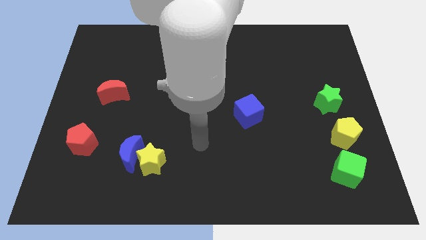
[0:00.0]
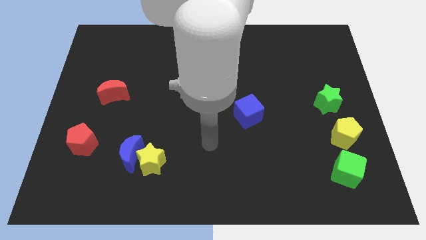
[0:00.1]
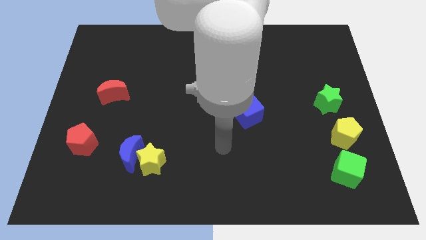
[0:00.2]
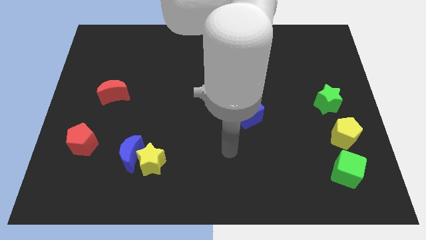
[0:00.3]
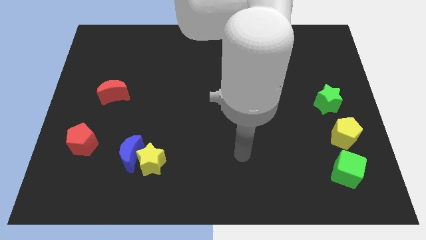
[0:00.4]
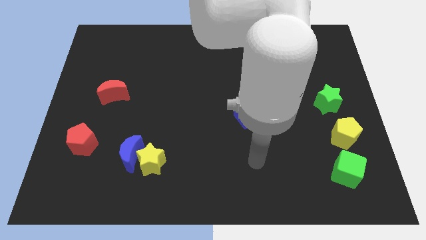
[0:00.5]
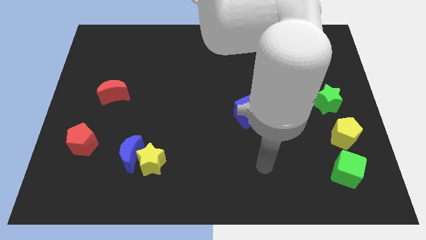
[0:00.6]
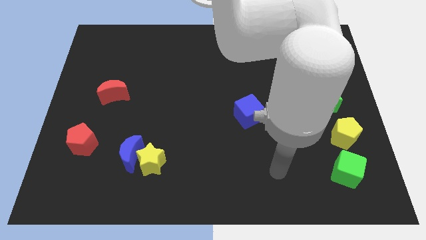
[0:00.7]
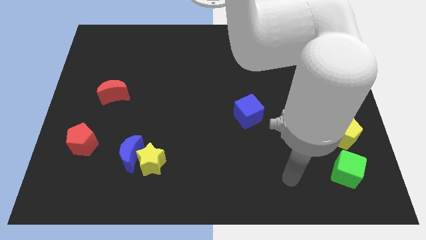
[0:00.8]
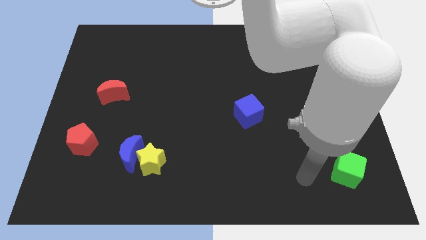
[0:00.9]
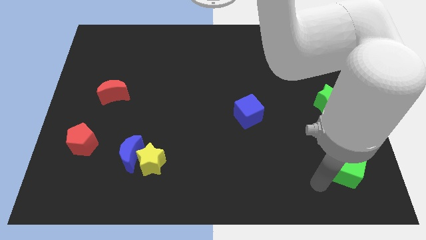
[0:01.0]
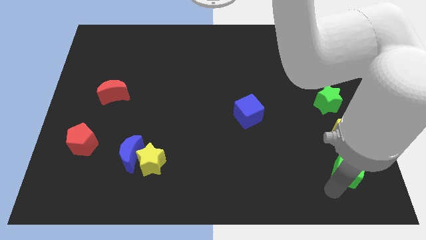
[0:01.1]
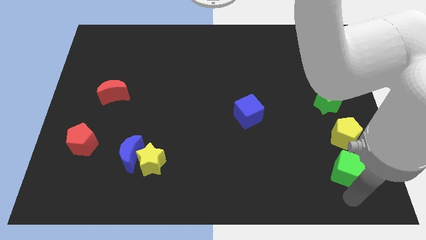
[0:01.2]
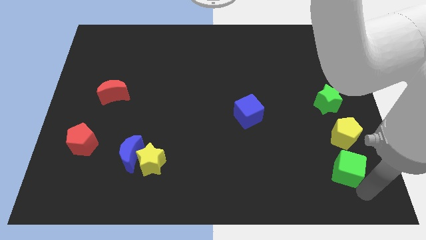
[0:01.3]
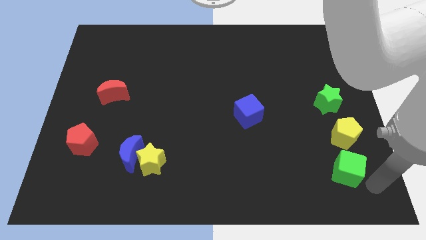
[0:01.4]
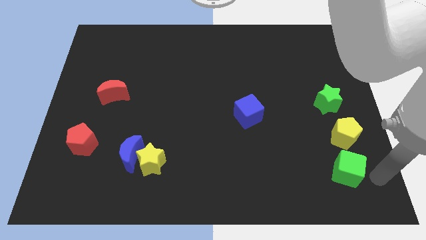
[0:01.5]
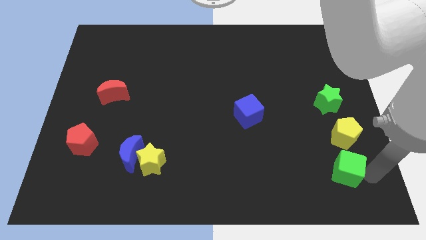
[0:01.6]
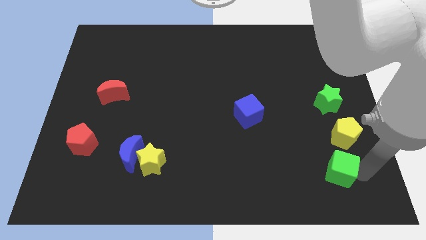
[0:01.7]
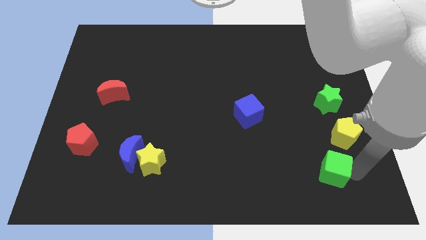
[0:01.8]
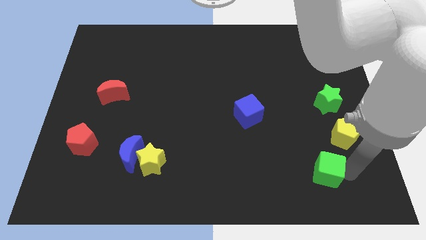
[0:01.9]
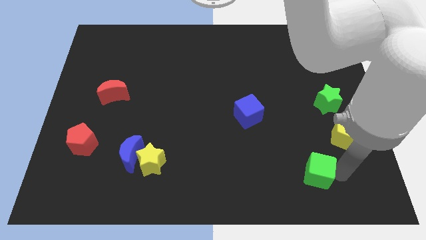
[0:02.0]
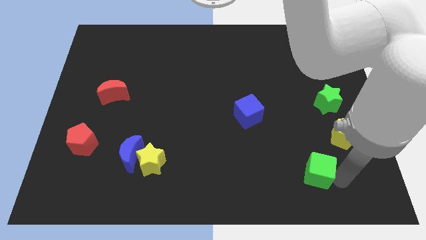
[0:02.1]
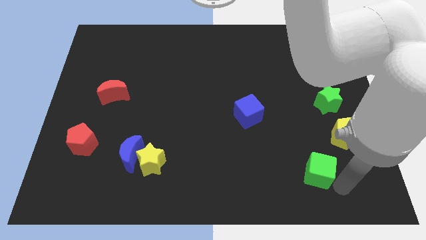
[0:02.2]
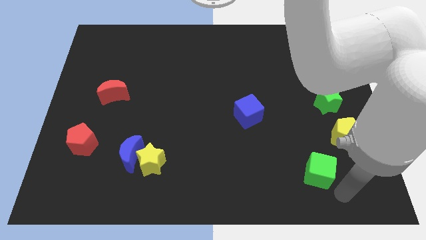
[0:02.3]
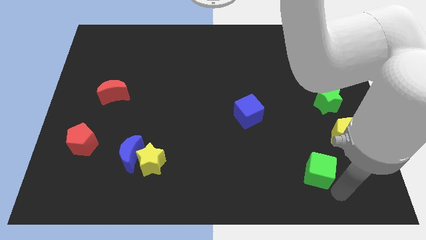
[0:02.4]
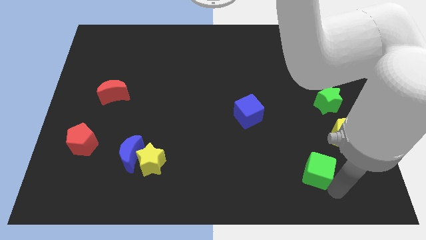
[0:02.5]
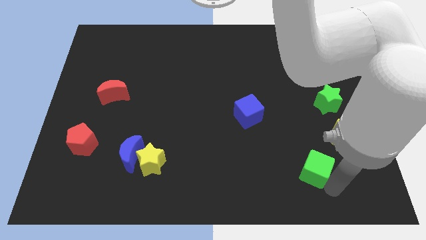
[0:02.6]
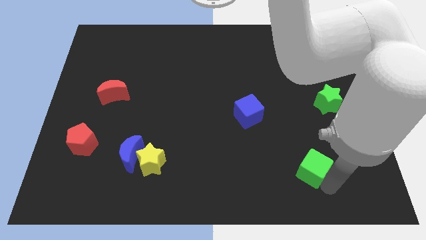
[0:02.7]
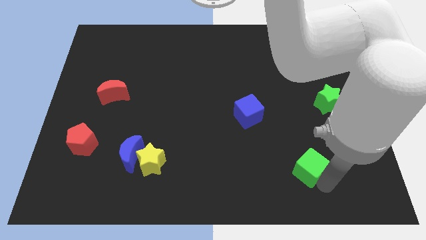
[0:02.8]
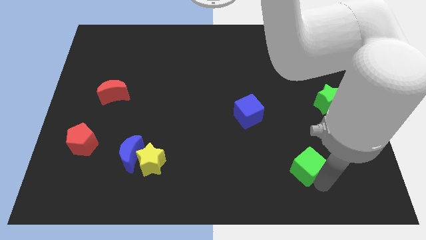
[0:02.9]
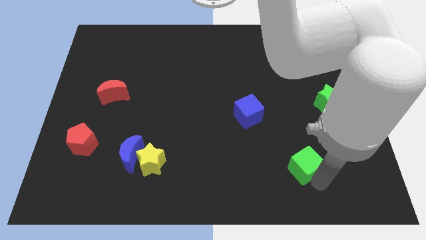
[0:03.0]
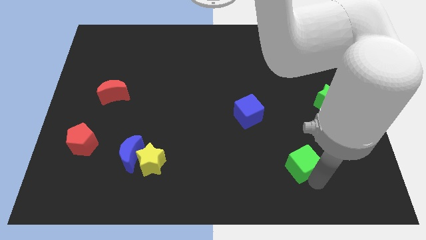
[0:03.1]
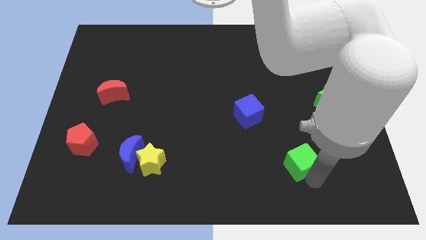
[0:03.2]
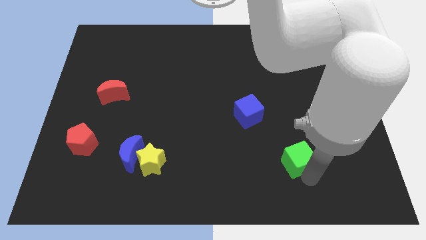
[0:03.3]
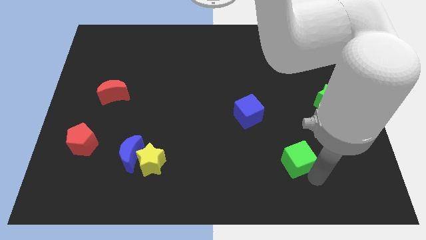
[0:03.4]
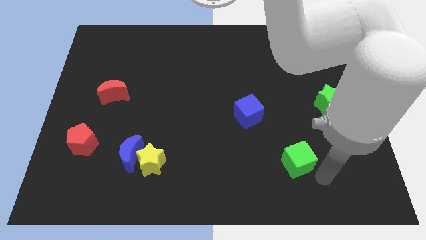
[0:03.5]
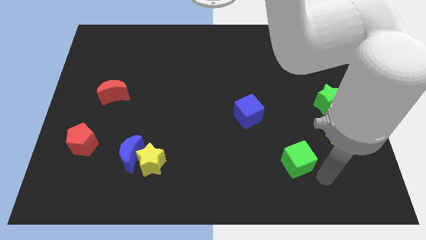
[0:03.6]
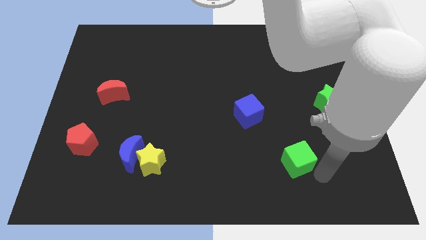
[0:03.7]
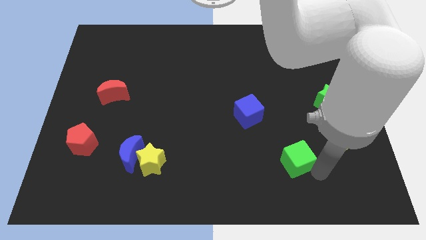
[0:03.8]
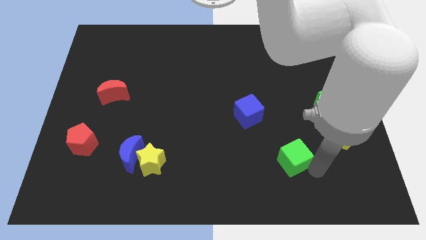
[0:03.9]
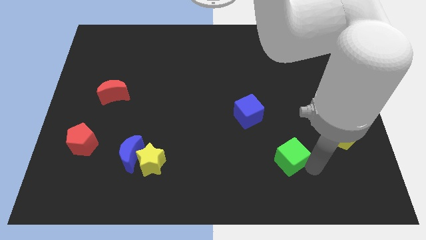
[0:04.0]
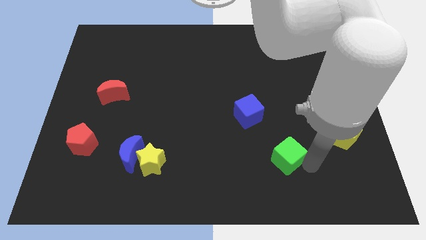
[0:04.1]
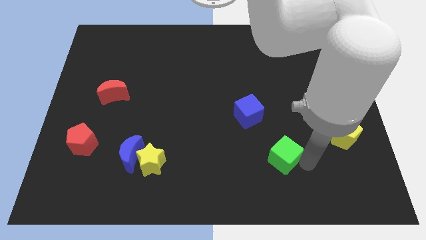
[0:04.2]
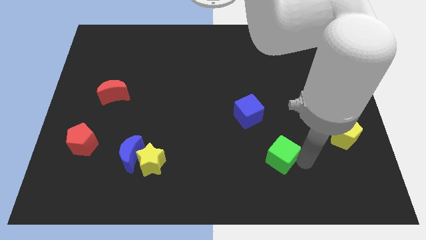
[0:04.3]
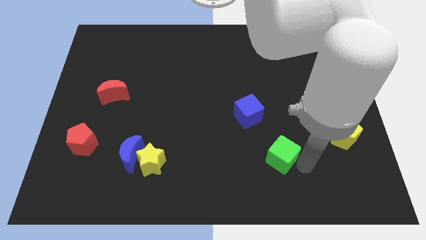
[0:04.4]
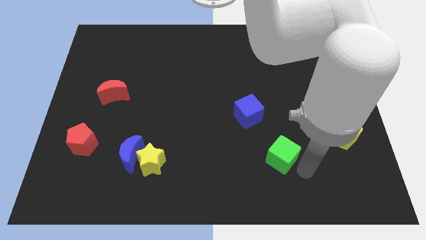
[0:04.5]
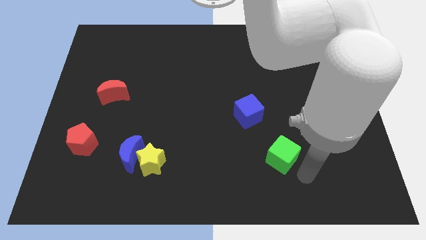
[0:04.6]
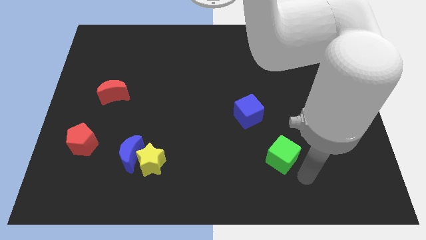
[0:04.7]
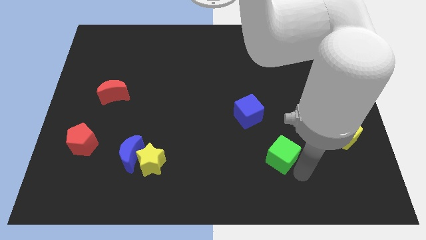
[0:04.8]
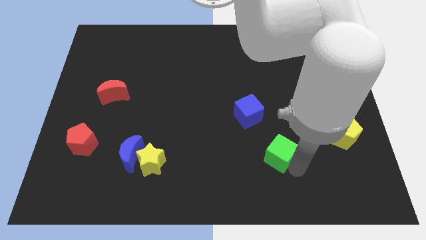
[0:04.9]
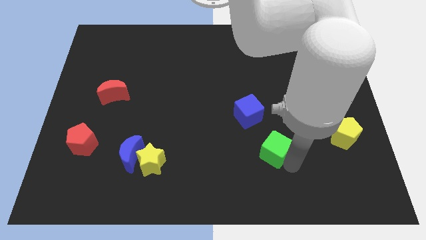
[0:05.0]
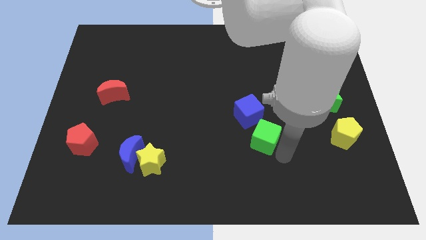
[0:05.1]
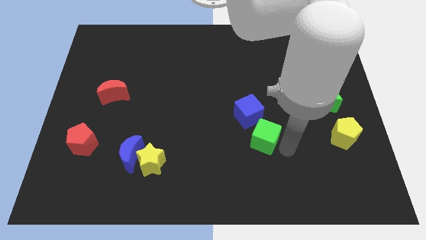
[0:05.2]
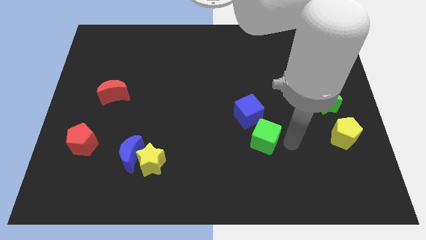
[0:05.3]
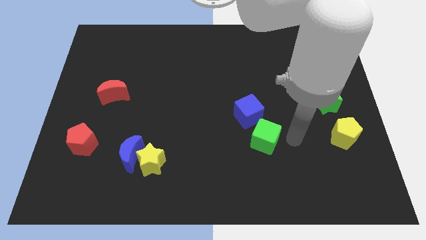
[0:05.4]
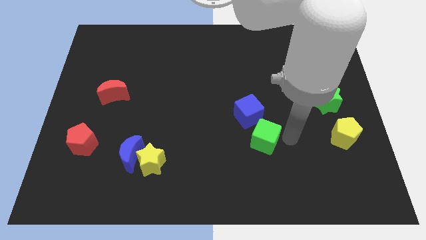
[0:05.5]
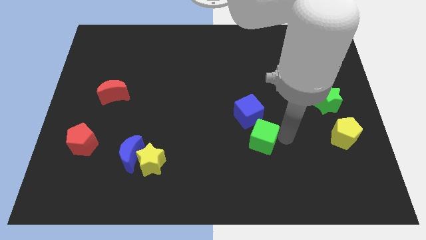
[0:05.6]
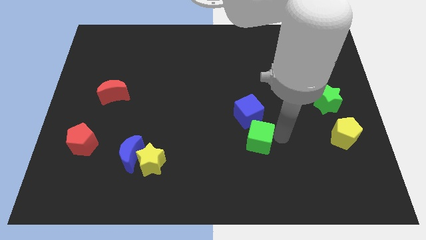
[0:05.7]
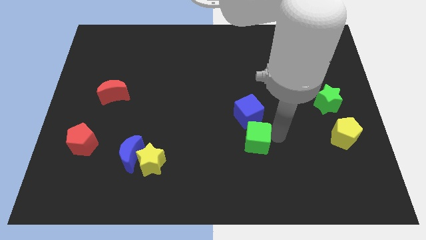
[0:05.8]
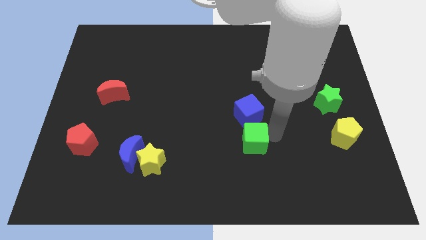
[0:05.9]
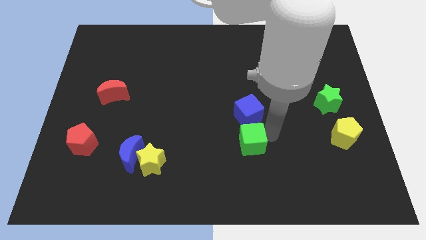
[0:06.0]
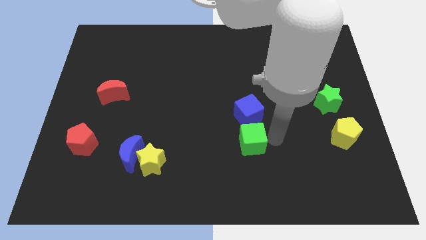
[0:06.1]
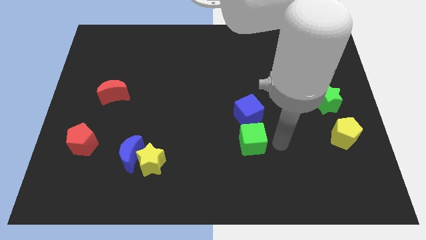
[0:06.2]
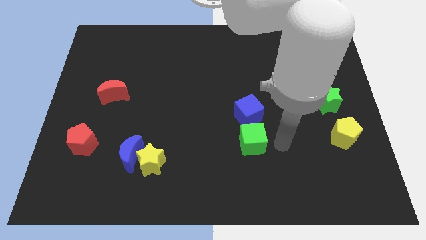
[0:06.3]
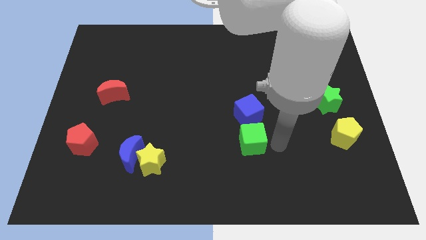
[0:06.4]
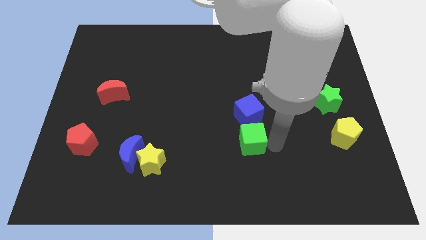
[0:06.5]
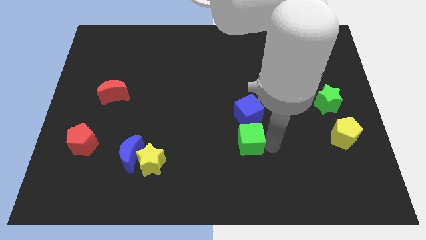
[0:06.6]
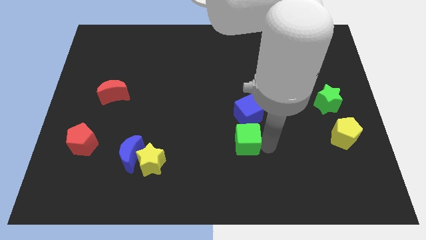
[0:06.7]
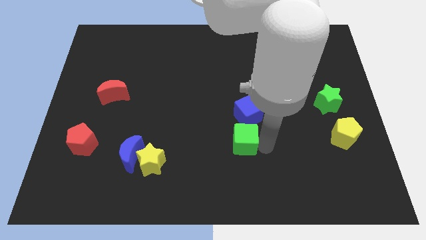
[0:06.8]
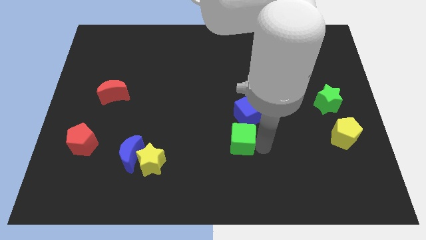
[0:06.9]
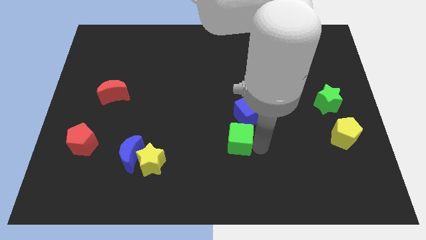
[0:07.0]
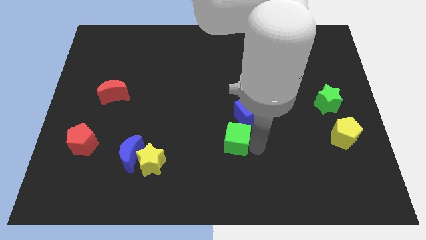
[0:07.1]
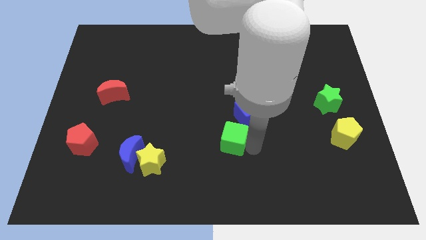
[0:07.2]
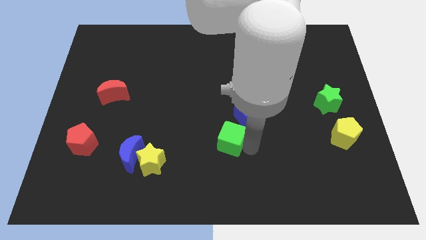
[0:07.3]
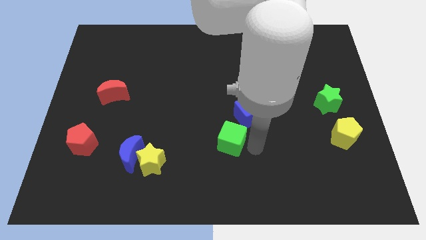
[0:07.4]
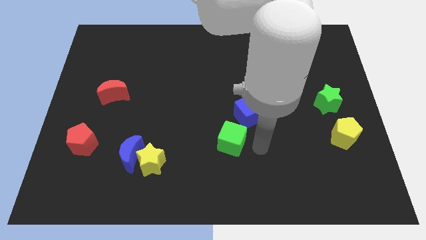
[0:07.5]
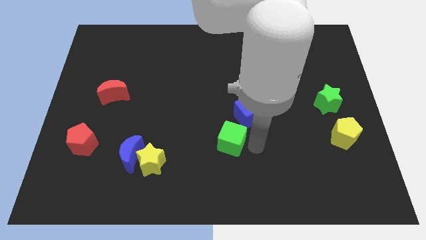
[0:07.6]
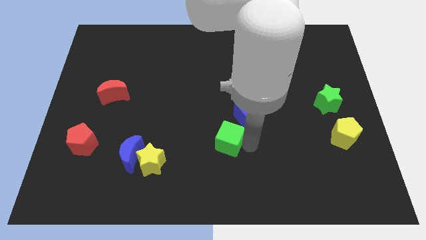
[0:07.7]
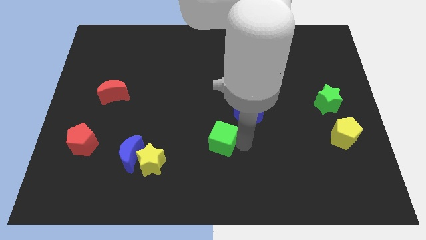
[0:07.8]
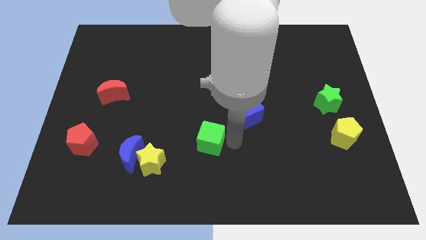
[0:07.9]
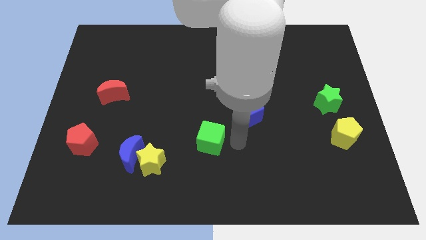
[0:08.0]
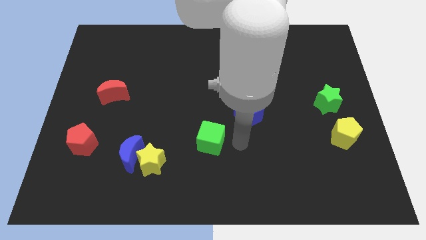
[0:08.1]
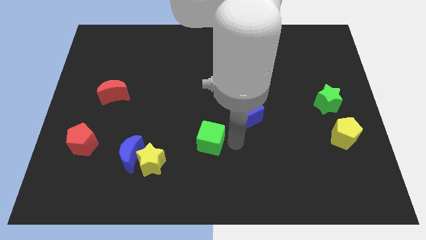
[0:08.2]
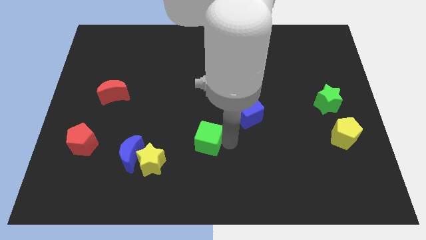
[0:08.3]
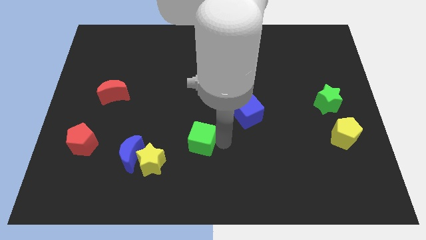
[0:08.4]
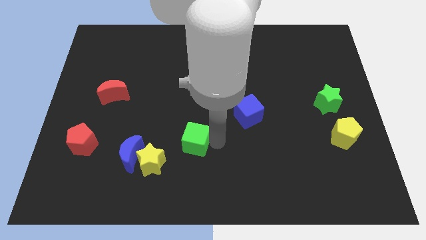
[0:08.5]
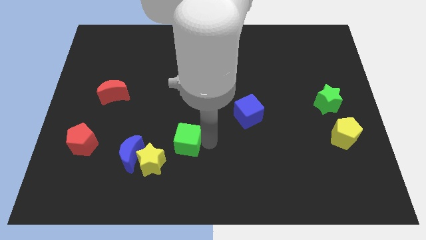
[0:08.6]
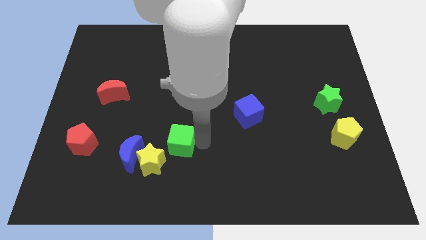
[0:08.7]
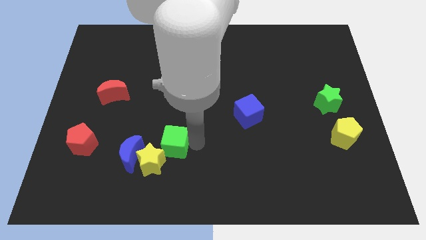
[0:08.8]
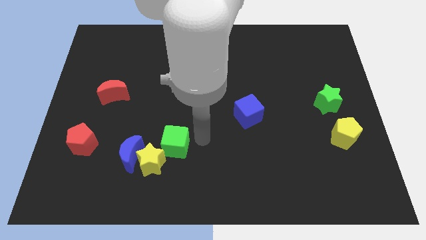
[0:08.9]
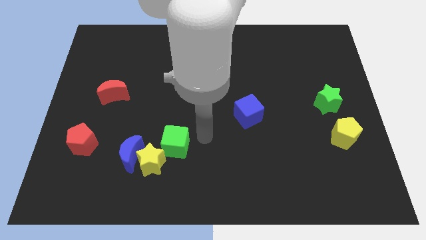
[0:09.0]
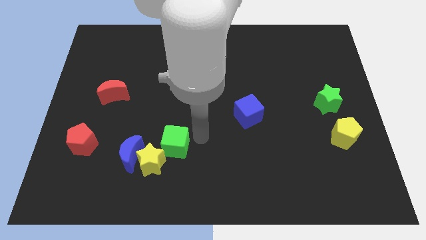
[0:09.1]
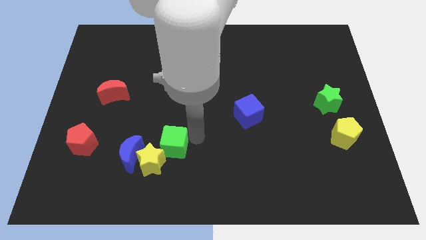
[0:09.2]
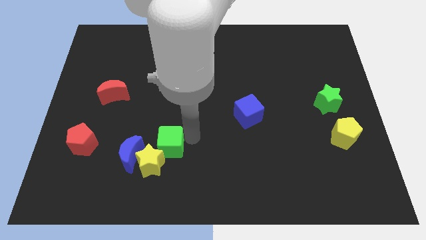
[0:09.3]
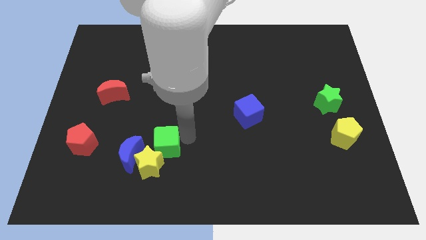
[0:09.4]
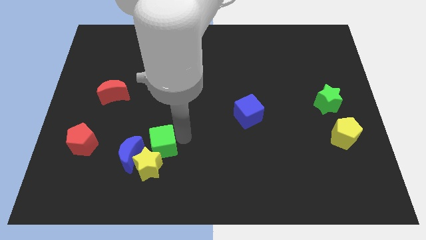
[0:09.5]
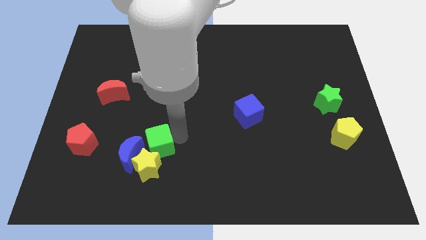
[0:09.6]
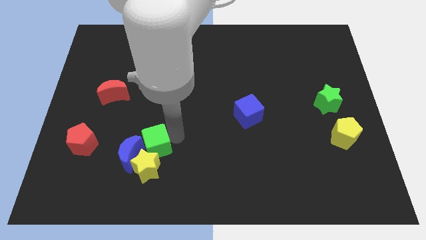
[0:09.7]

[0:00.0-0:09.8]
move the green cube to the blue moon
